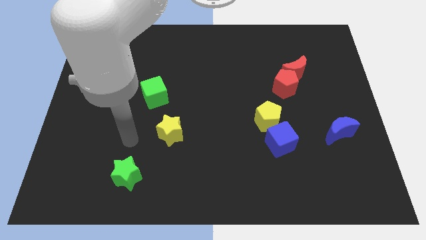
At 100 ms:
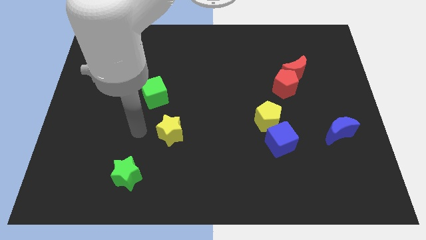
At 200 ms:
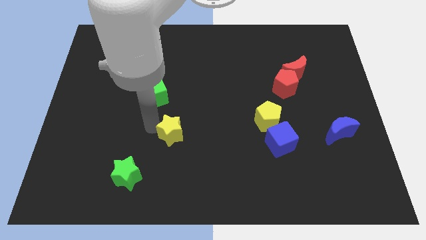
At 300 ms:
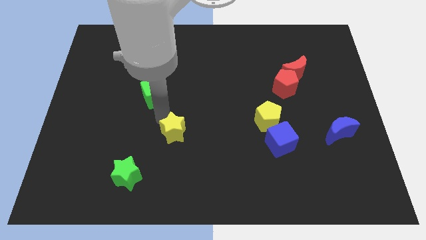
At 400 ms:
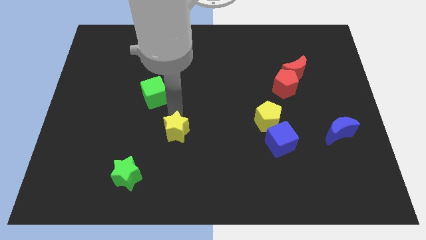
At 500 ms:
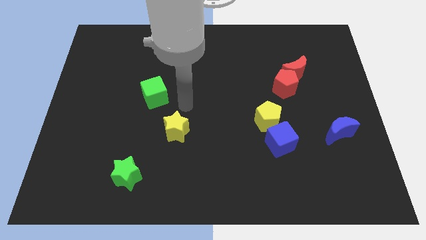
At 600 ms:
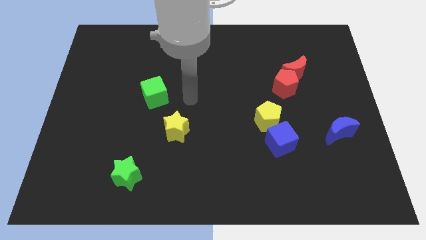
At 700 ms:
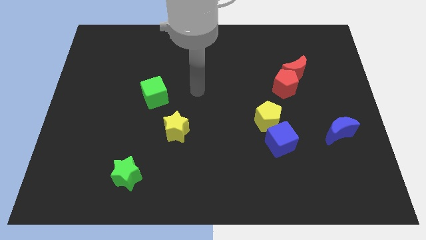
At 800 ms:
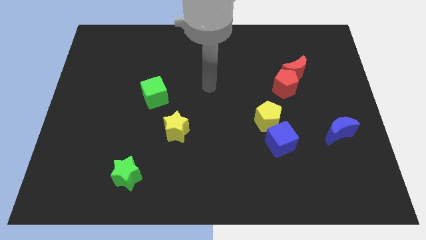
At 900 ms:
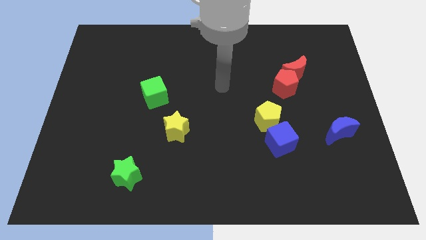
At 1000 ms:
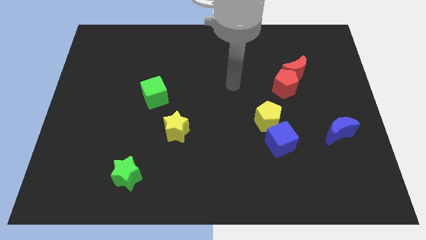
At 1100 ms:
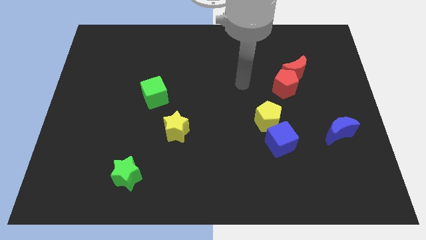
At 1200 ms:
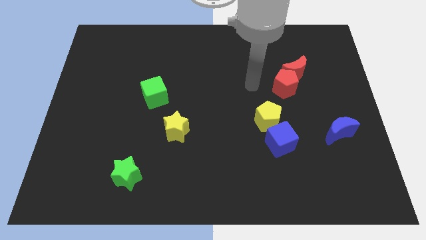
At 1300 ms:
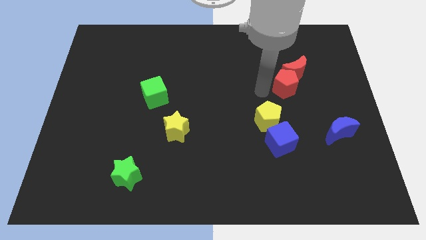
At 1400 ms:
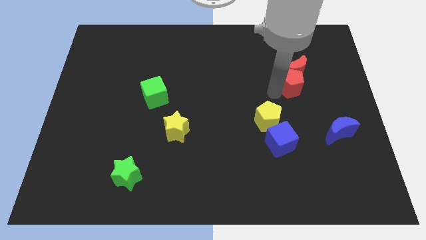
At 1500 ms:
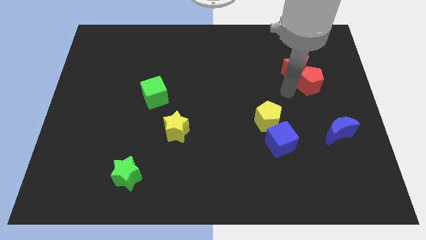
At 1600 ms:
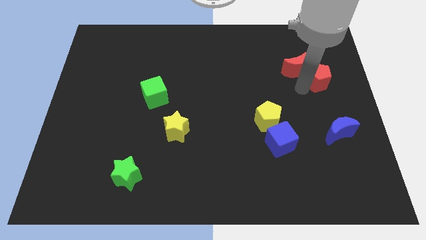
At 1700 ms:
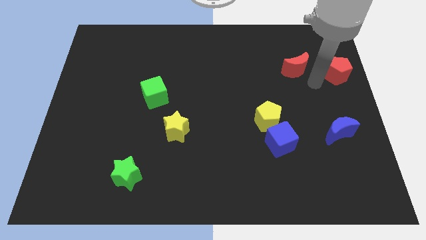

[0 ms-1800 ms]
separate the red moon from the red pentagon

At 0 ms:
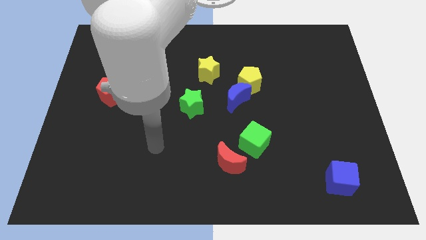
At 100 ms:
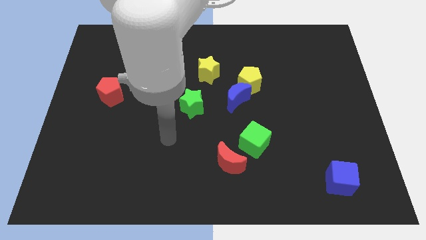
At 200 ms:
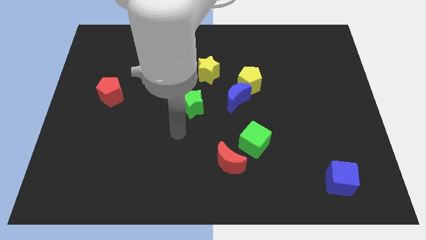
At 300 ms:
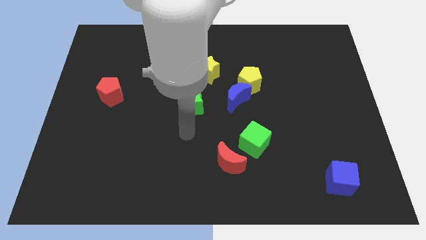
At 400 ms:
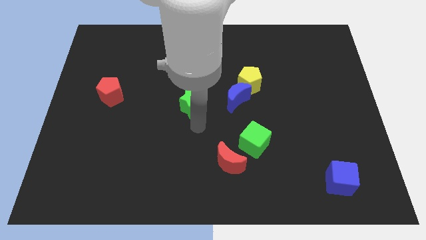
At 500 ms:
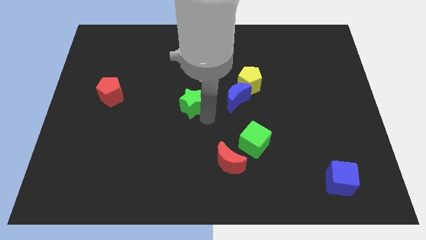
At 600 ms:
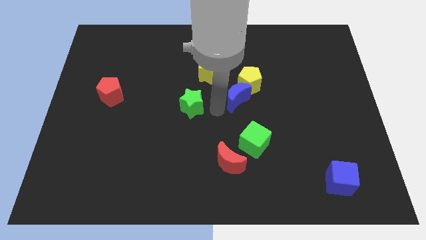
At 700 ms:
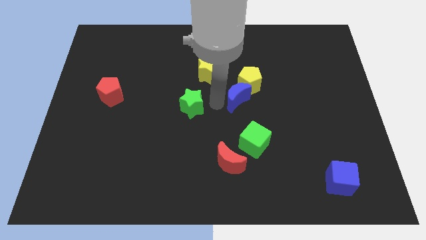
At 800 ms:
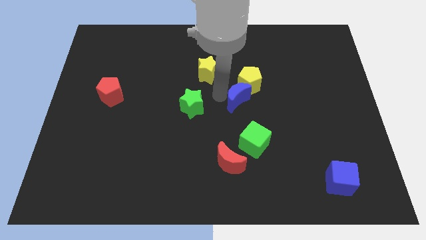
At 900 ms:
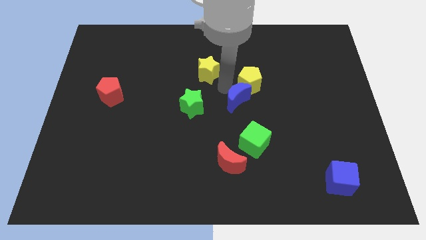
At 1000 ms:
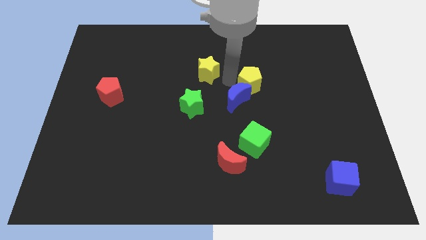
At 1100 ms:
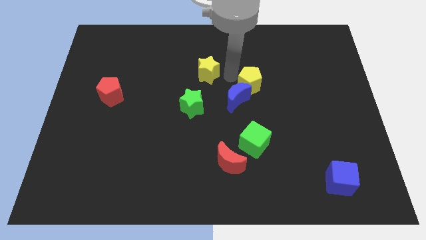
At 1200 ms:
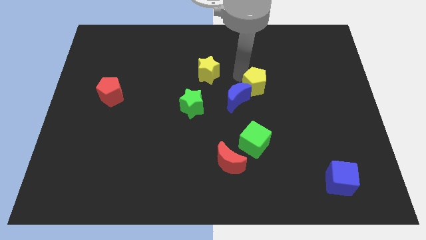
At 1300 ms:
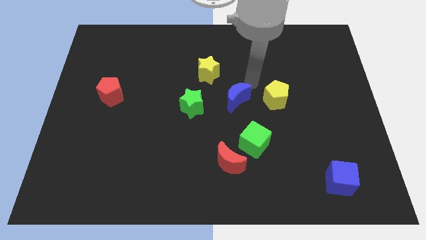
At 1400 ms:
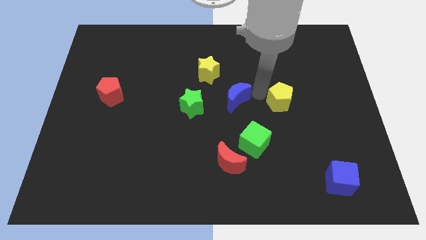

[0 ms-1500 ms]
separate the blue moon from the yellow pentagon

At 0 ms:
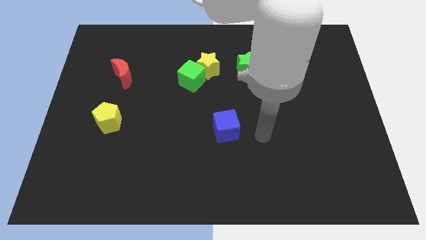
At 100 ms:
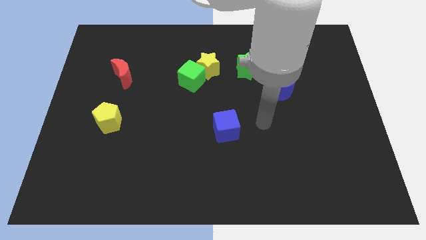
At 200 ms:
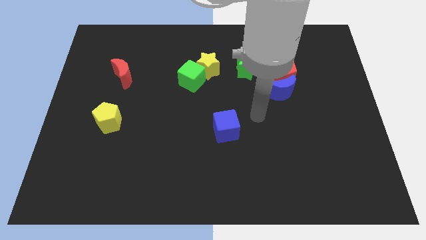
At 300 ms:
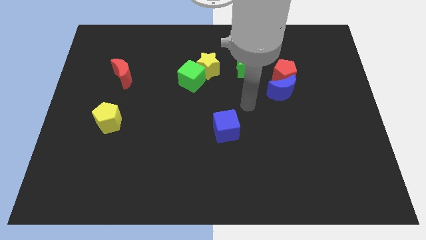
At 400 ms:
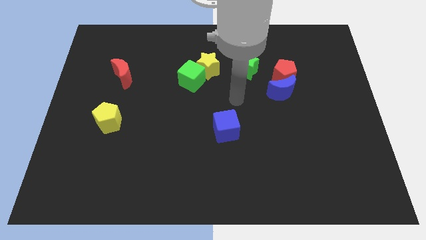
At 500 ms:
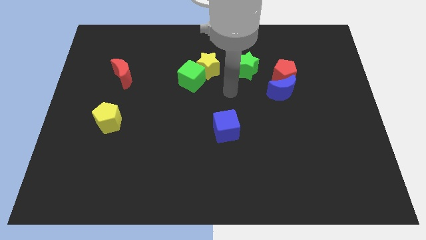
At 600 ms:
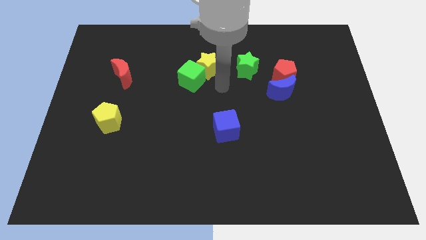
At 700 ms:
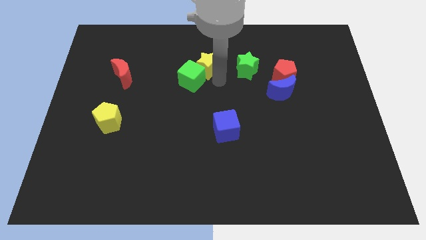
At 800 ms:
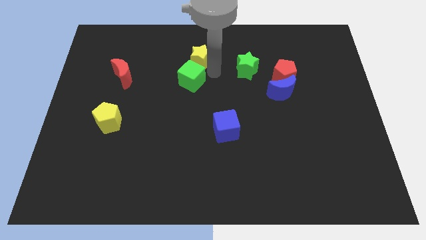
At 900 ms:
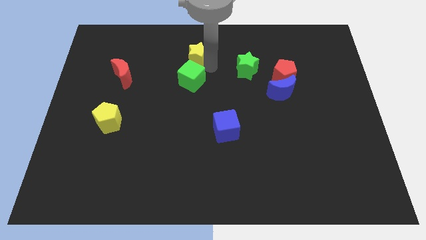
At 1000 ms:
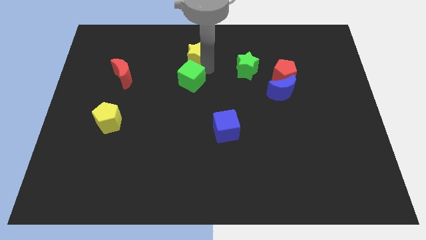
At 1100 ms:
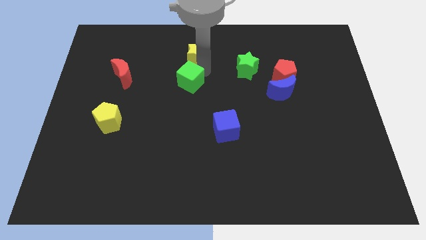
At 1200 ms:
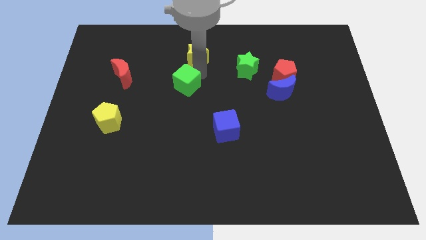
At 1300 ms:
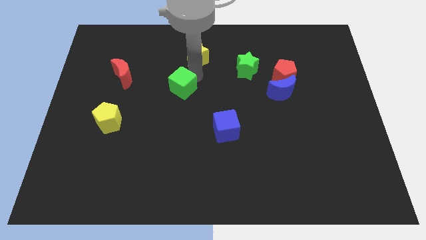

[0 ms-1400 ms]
pull the green cube apart from the yellow star

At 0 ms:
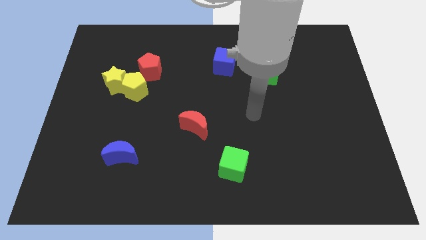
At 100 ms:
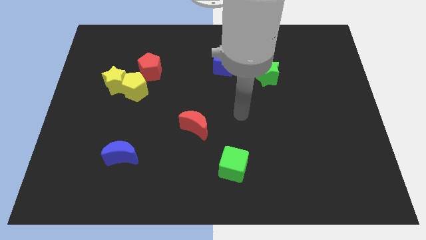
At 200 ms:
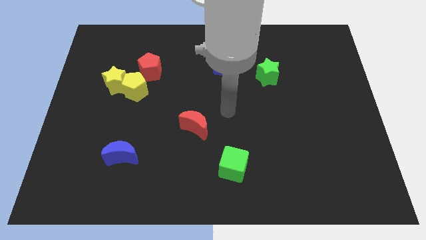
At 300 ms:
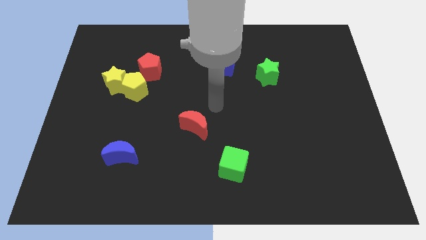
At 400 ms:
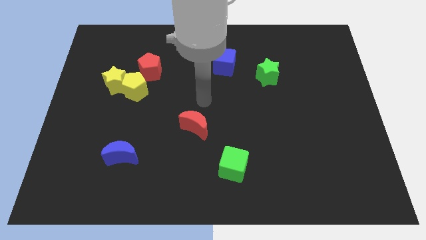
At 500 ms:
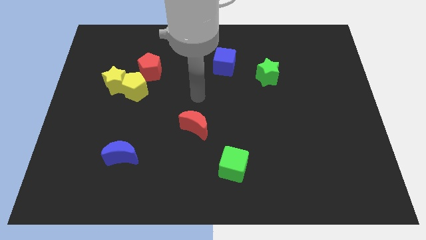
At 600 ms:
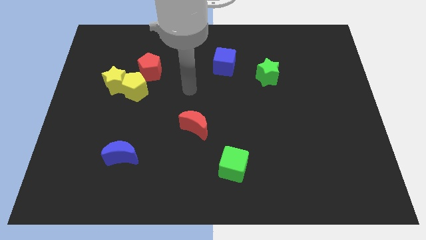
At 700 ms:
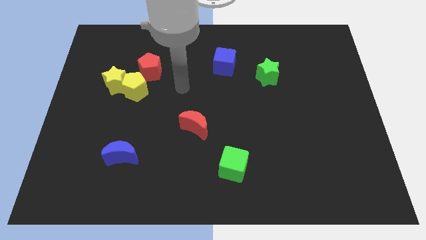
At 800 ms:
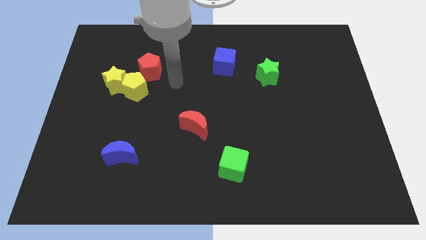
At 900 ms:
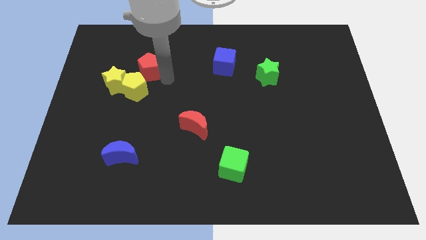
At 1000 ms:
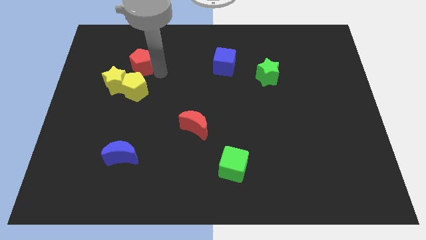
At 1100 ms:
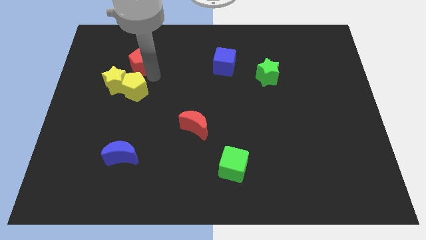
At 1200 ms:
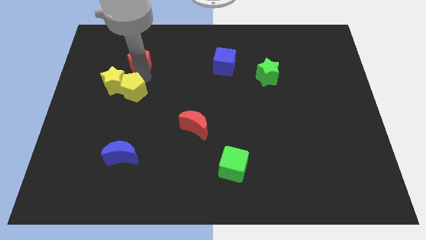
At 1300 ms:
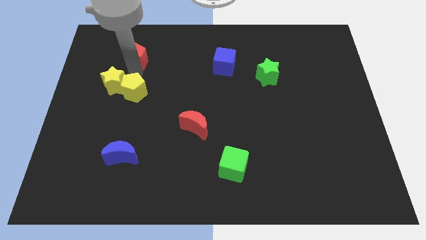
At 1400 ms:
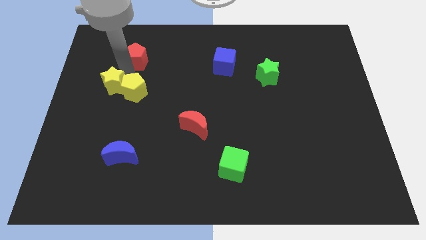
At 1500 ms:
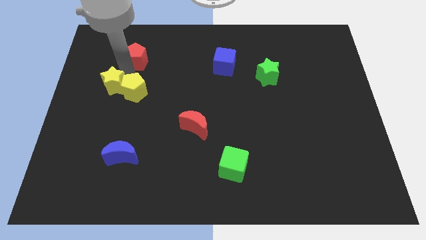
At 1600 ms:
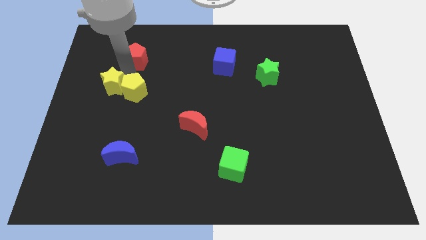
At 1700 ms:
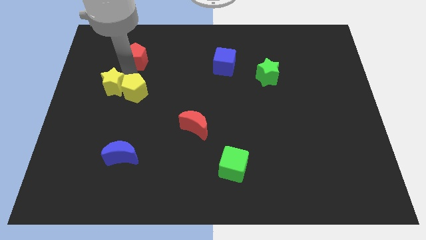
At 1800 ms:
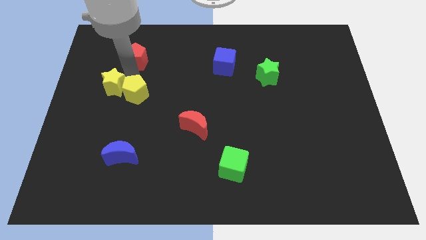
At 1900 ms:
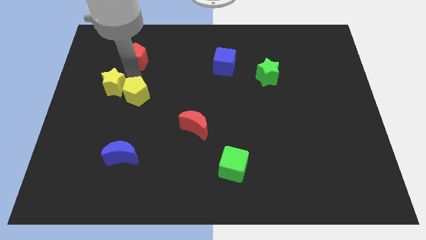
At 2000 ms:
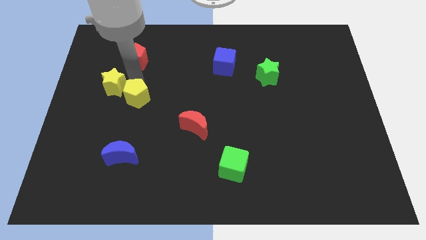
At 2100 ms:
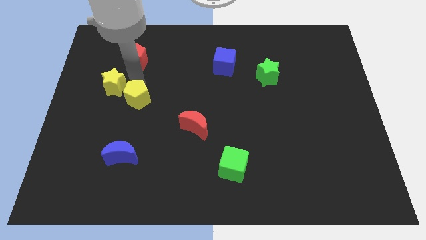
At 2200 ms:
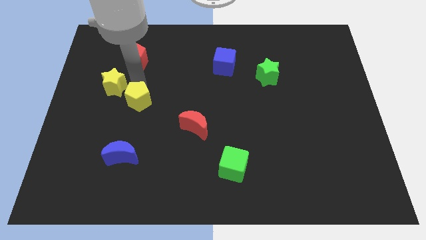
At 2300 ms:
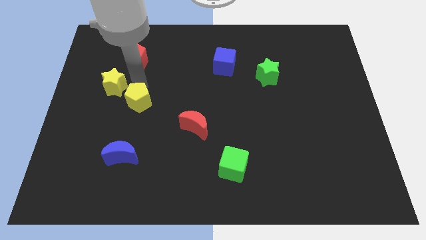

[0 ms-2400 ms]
pull the yellow pentagon apart from the yellow star and red pentagon

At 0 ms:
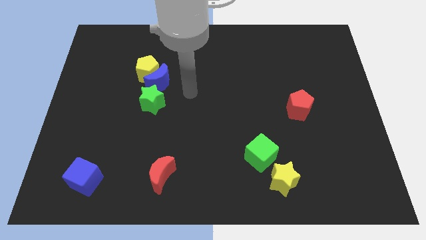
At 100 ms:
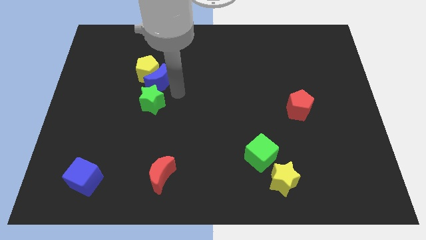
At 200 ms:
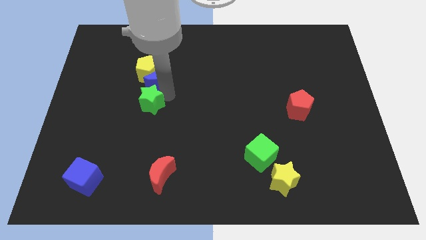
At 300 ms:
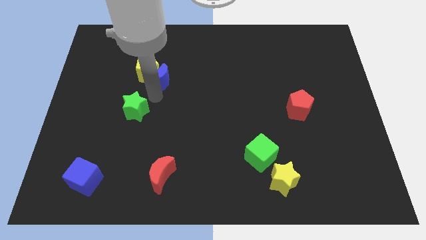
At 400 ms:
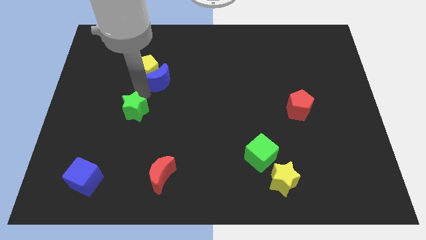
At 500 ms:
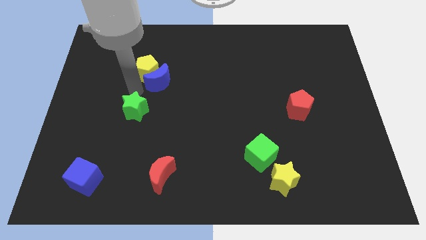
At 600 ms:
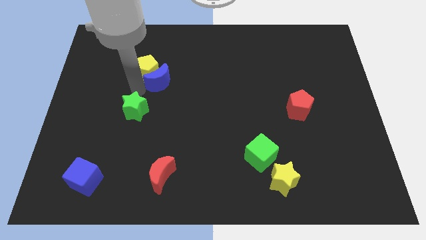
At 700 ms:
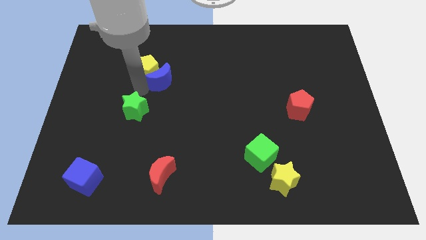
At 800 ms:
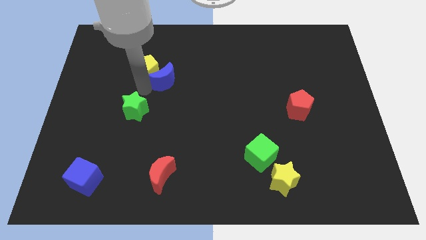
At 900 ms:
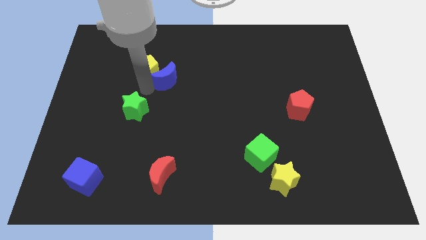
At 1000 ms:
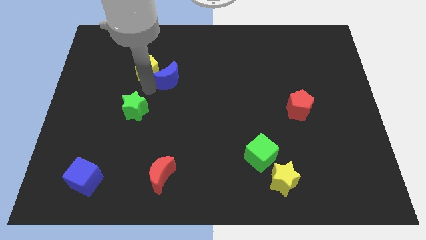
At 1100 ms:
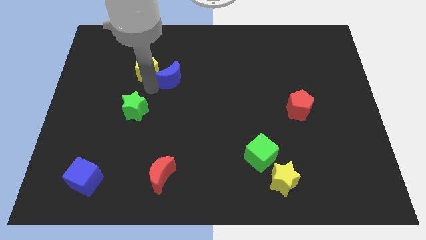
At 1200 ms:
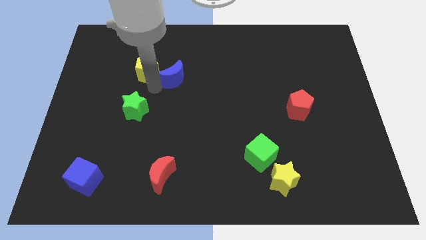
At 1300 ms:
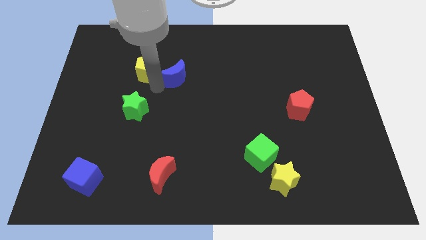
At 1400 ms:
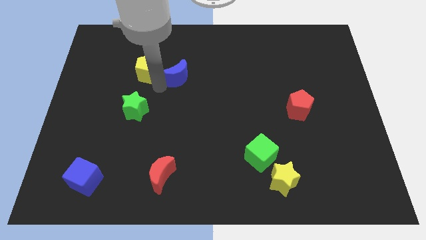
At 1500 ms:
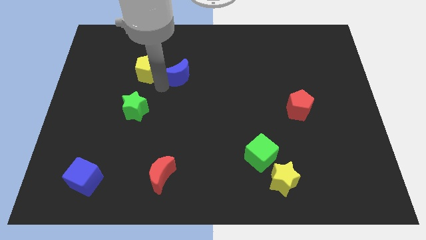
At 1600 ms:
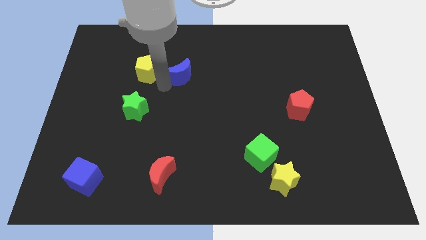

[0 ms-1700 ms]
move the blue moon away from the yellow pentagon and green star

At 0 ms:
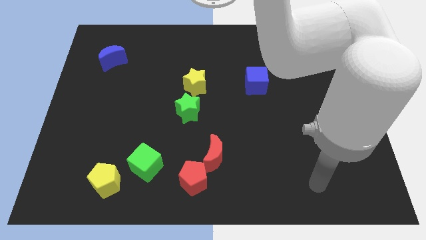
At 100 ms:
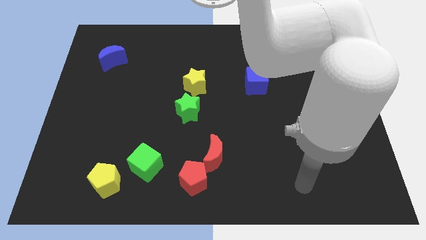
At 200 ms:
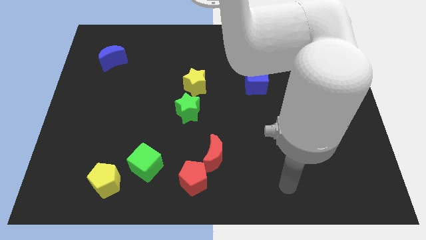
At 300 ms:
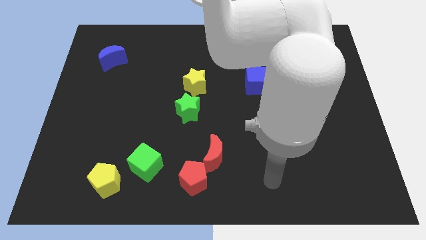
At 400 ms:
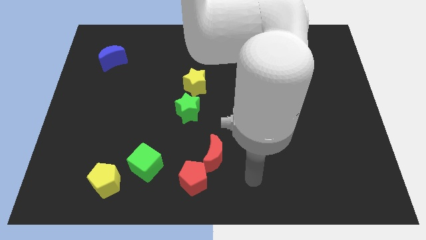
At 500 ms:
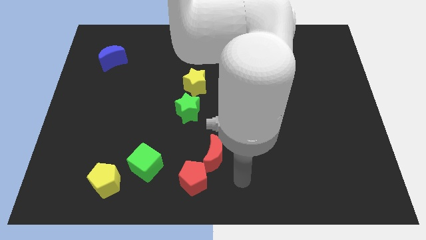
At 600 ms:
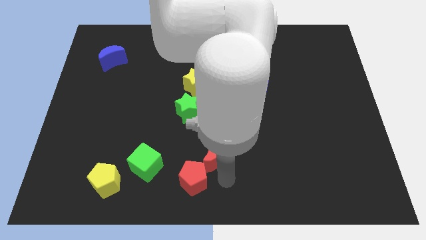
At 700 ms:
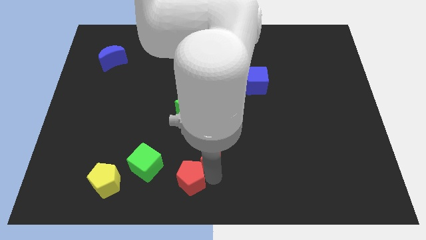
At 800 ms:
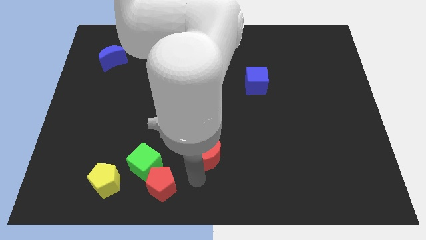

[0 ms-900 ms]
pull the red moon apart from the red pentagon
